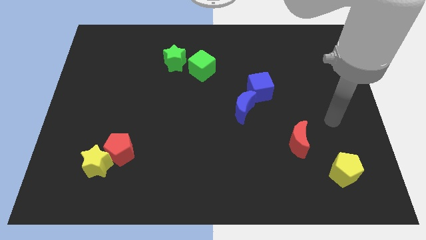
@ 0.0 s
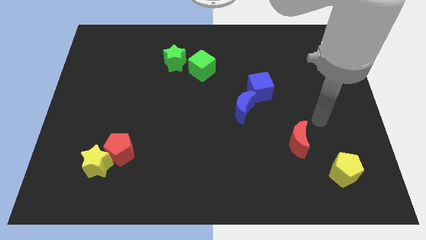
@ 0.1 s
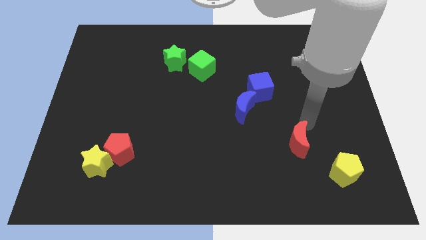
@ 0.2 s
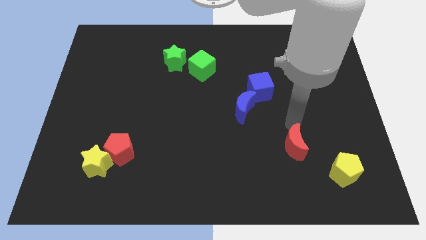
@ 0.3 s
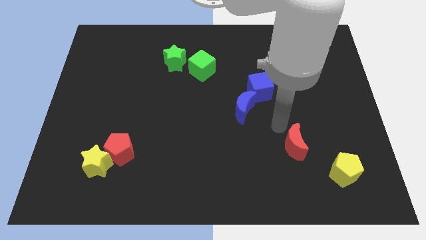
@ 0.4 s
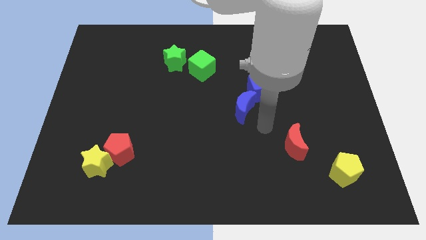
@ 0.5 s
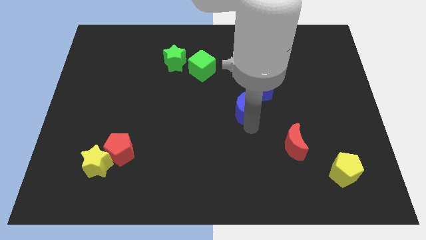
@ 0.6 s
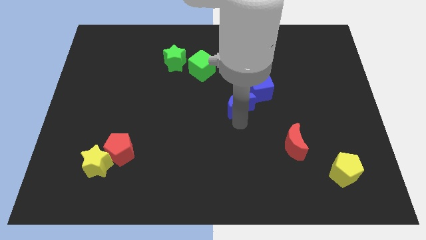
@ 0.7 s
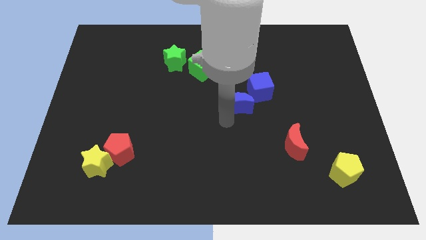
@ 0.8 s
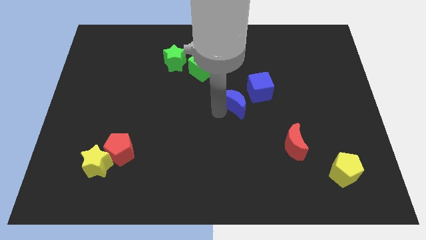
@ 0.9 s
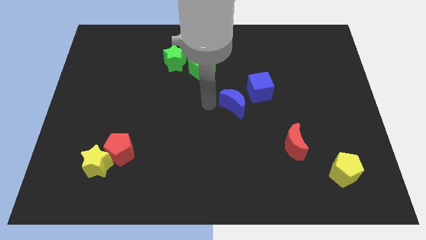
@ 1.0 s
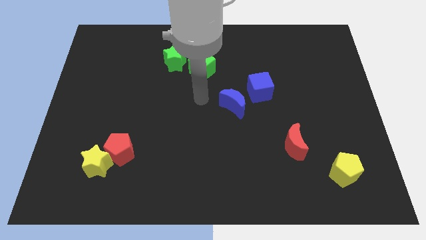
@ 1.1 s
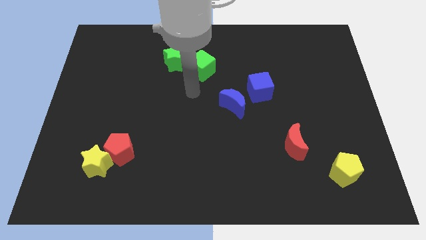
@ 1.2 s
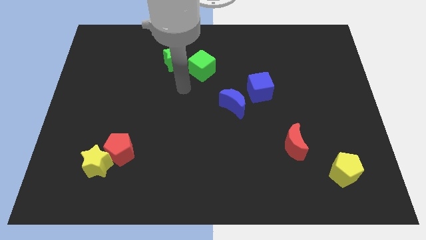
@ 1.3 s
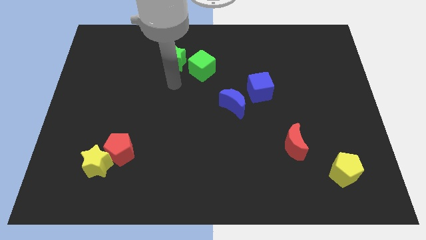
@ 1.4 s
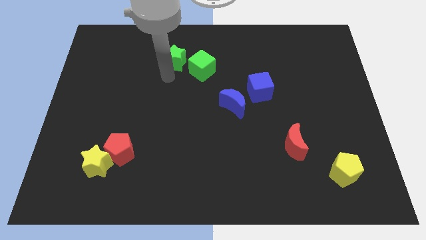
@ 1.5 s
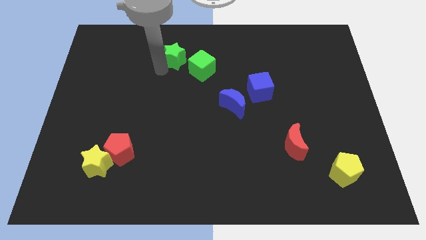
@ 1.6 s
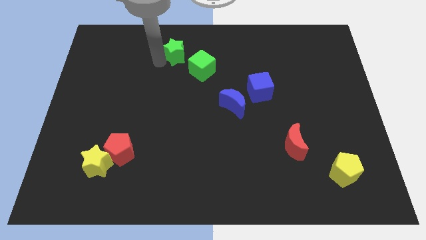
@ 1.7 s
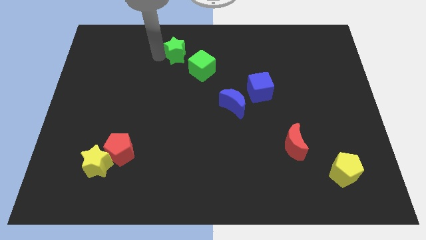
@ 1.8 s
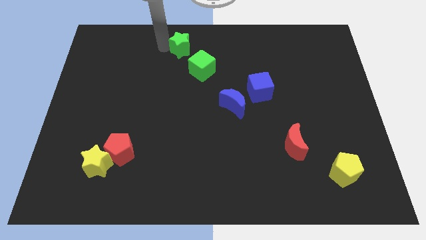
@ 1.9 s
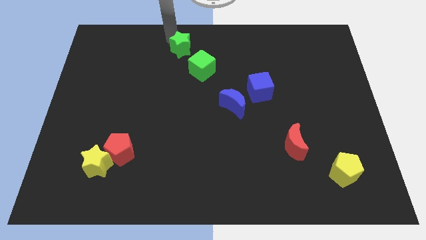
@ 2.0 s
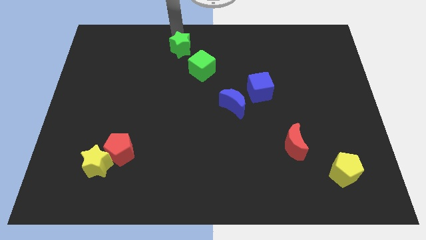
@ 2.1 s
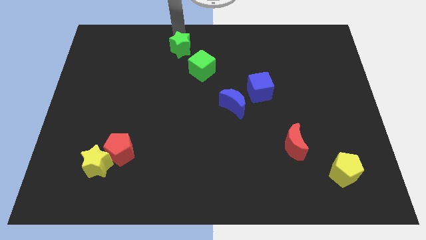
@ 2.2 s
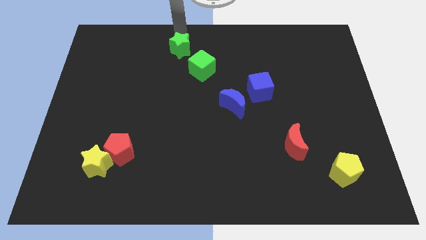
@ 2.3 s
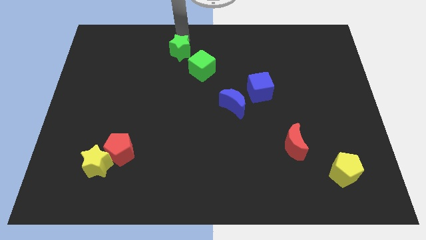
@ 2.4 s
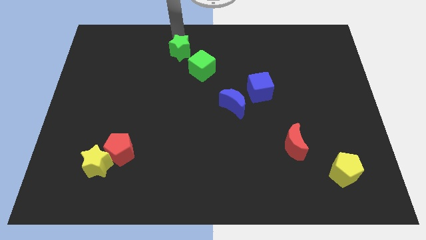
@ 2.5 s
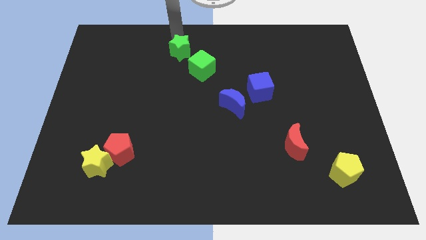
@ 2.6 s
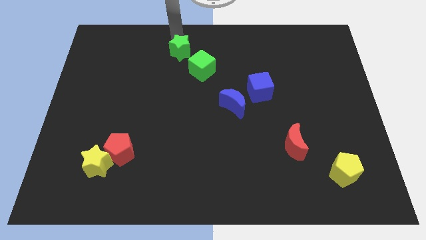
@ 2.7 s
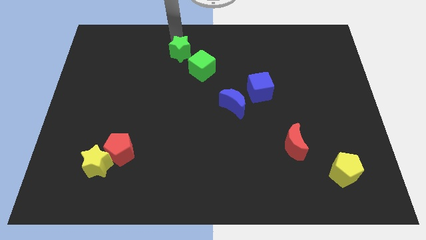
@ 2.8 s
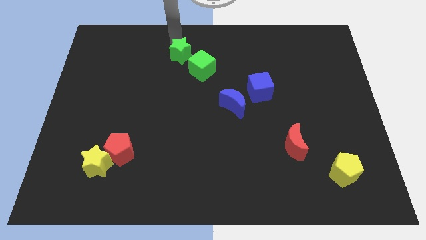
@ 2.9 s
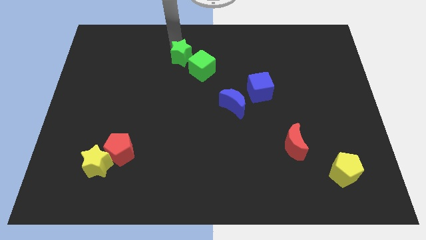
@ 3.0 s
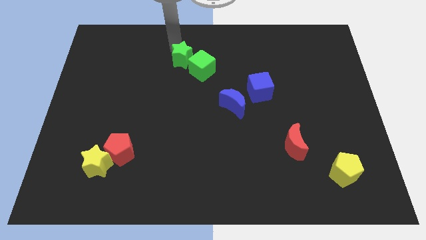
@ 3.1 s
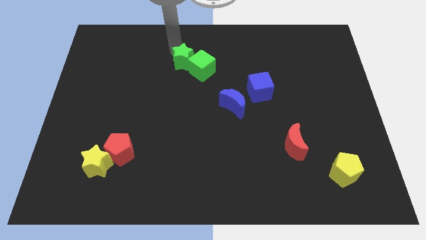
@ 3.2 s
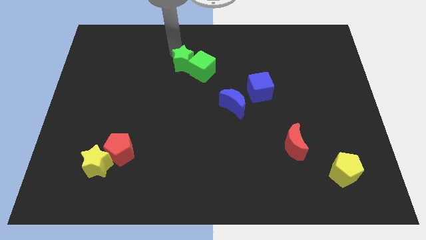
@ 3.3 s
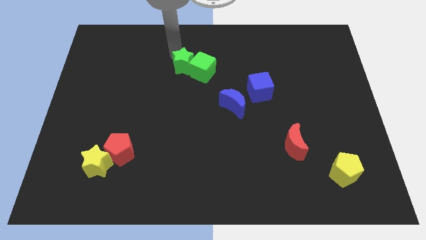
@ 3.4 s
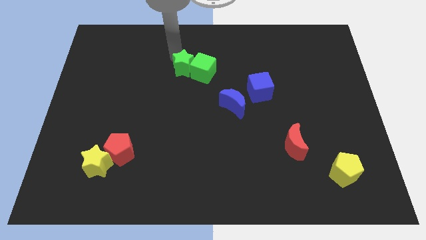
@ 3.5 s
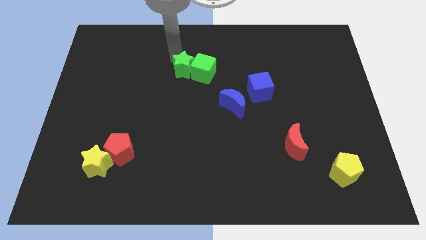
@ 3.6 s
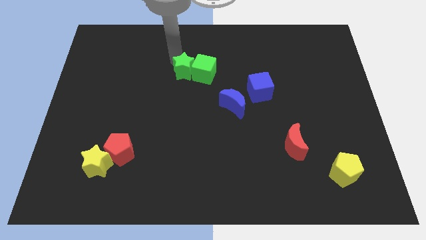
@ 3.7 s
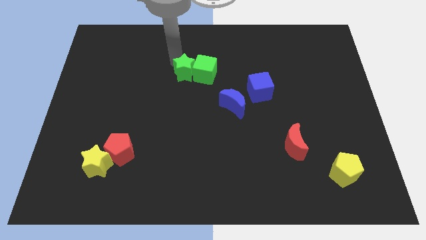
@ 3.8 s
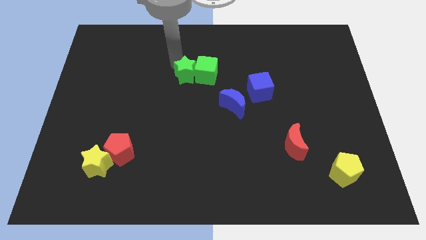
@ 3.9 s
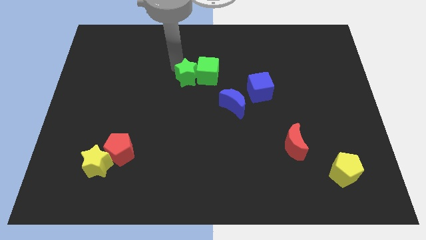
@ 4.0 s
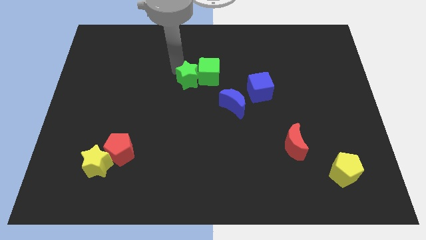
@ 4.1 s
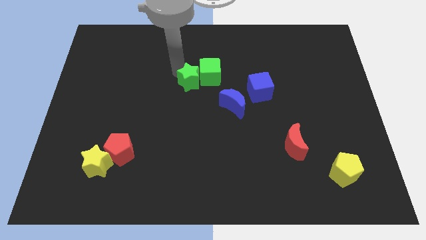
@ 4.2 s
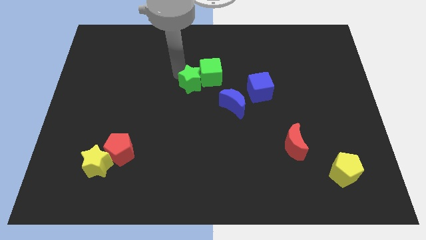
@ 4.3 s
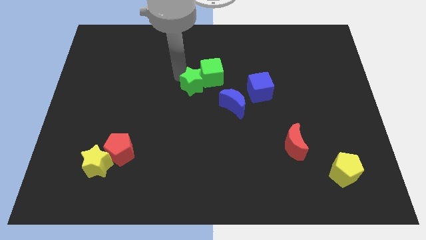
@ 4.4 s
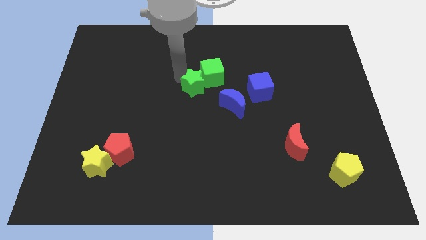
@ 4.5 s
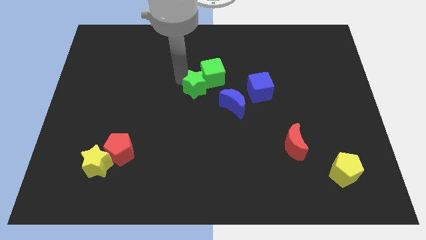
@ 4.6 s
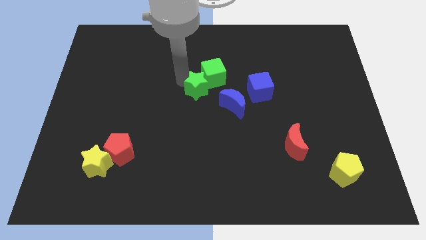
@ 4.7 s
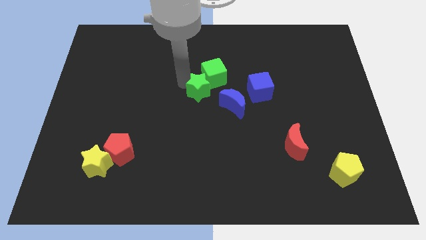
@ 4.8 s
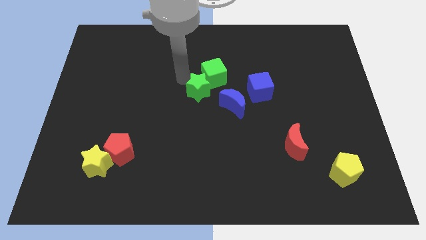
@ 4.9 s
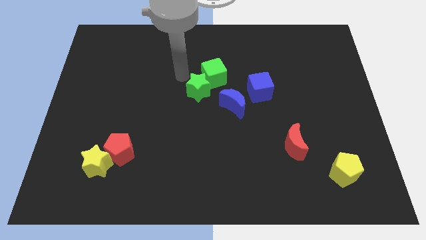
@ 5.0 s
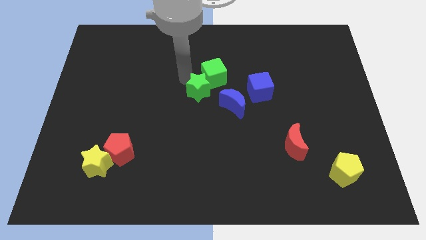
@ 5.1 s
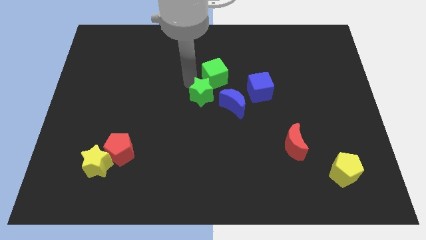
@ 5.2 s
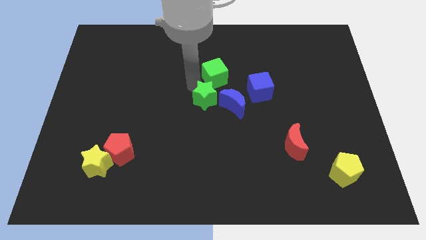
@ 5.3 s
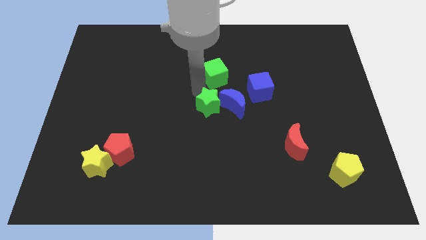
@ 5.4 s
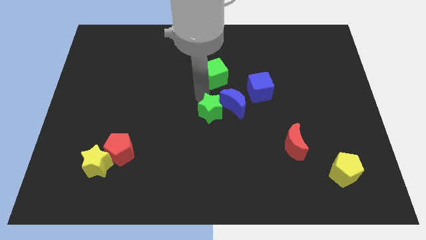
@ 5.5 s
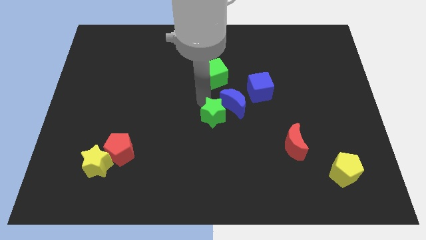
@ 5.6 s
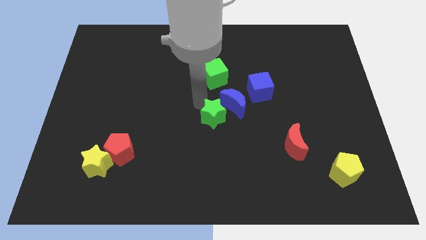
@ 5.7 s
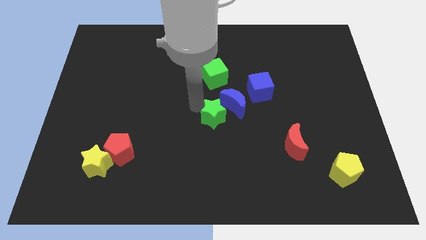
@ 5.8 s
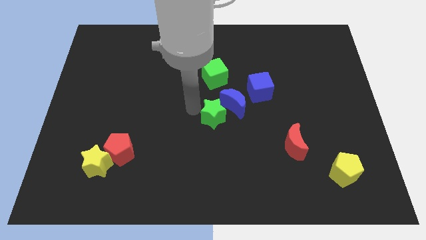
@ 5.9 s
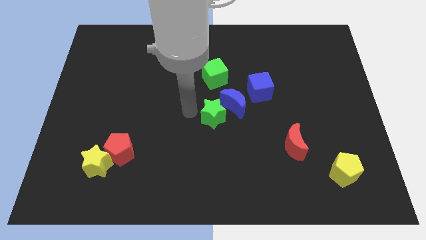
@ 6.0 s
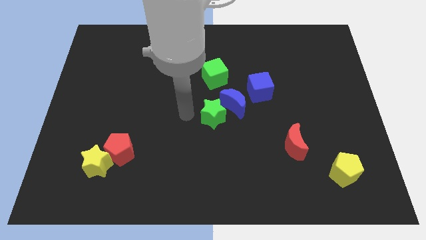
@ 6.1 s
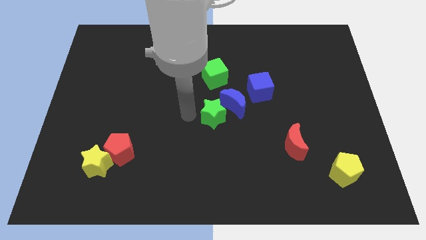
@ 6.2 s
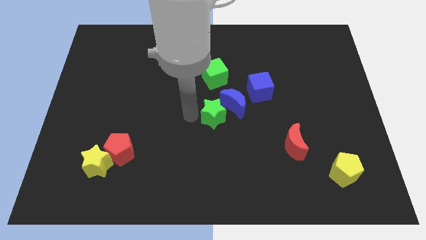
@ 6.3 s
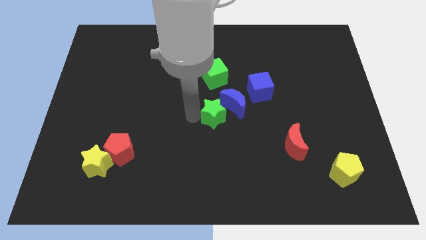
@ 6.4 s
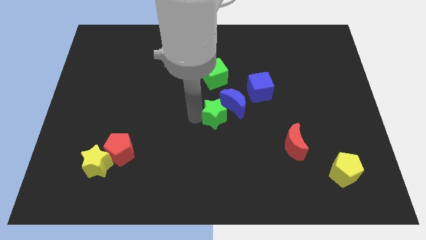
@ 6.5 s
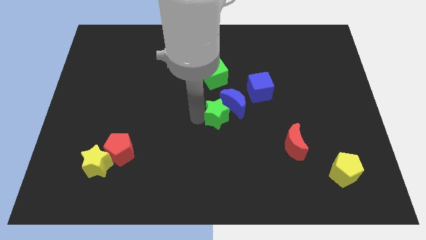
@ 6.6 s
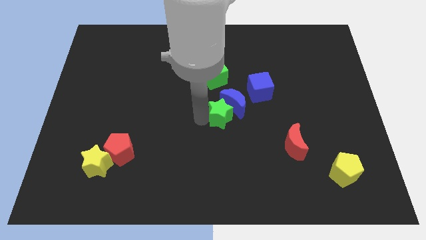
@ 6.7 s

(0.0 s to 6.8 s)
move the green star downwards and to the right

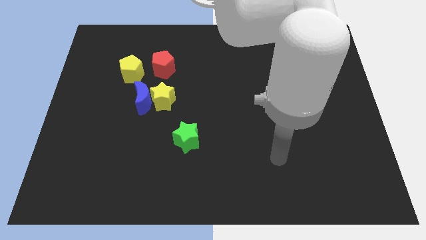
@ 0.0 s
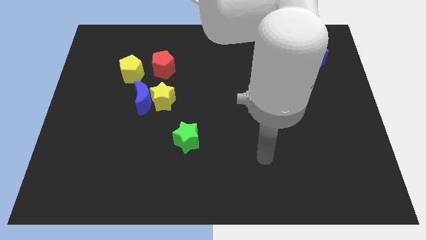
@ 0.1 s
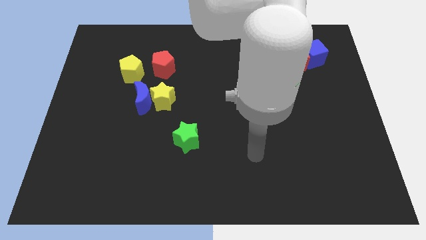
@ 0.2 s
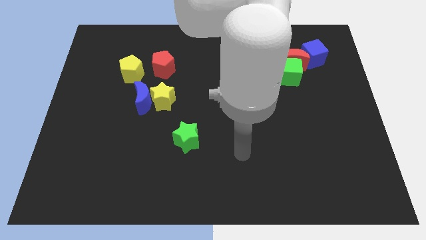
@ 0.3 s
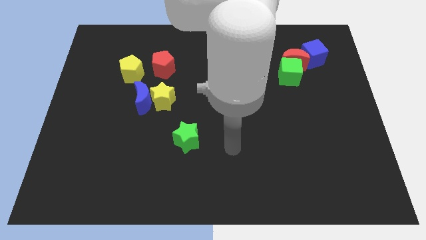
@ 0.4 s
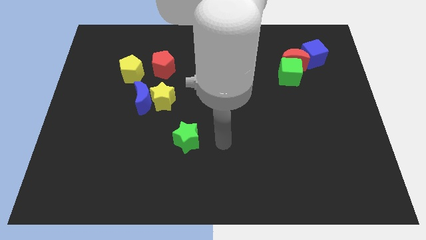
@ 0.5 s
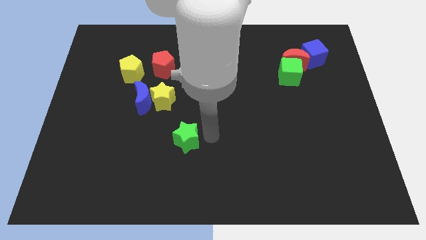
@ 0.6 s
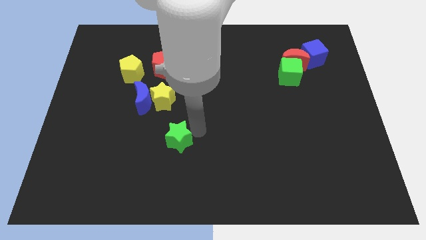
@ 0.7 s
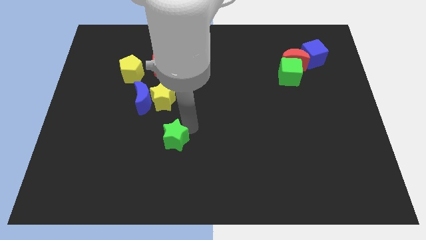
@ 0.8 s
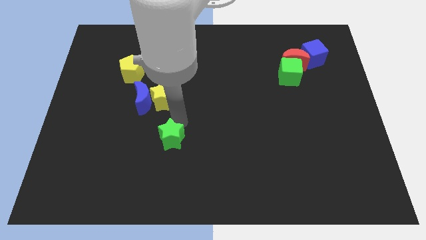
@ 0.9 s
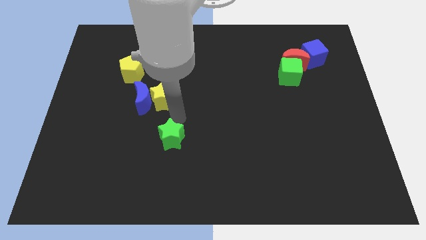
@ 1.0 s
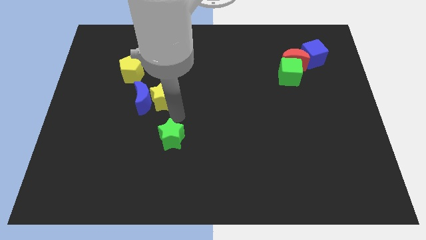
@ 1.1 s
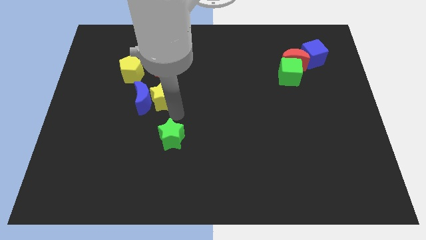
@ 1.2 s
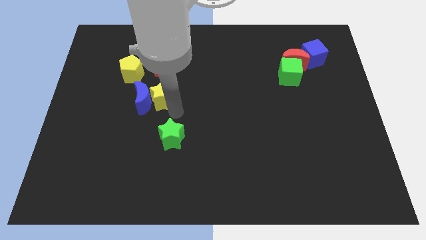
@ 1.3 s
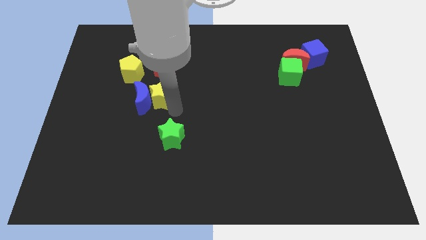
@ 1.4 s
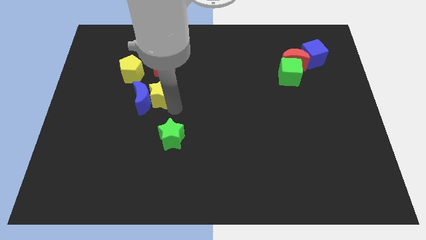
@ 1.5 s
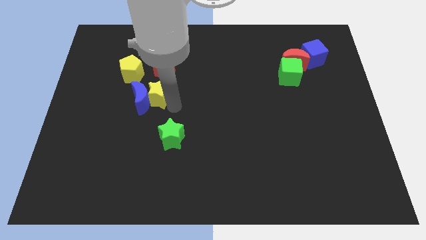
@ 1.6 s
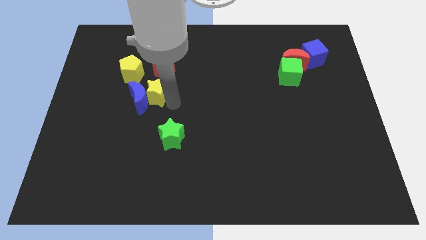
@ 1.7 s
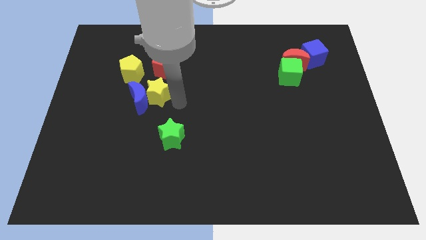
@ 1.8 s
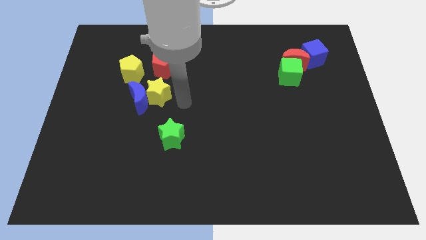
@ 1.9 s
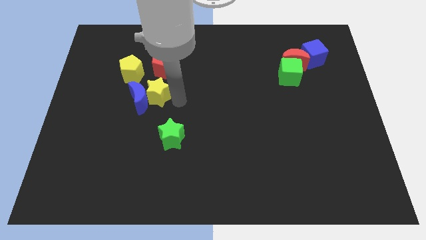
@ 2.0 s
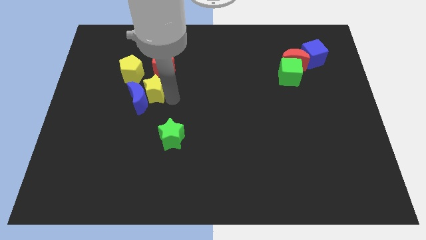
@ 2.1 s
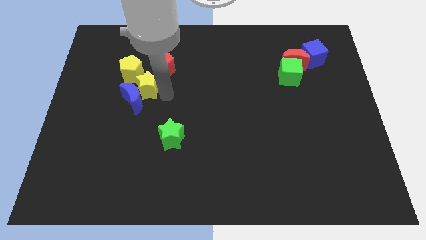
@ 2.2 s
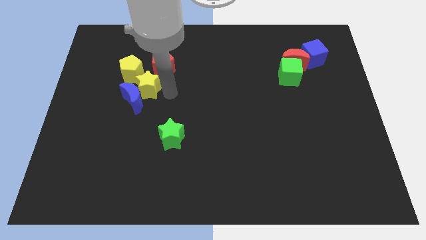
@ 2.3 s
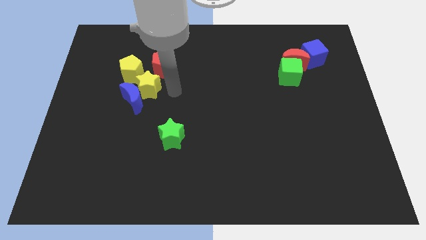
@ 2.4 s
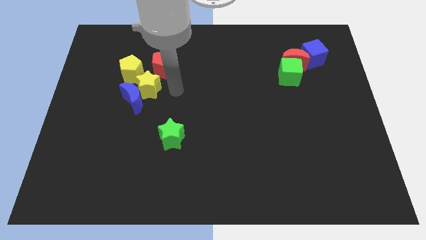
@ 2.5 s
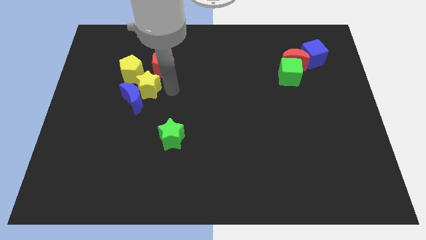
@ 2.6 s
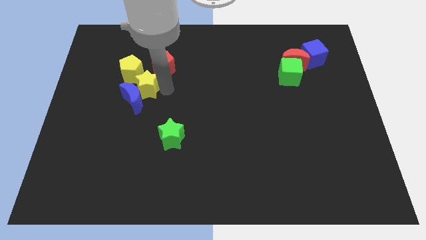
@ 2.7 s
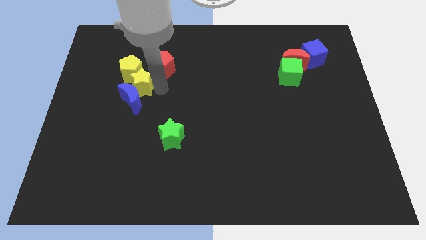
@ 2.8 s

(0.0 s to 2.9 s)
push the yellow star up and then to the left a little
